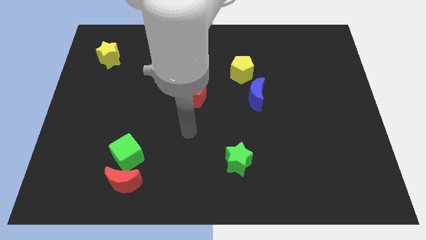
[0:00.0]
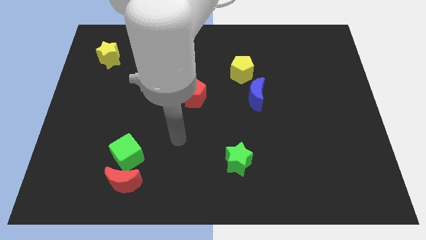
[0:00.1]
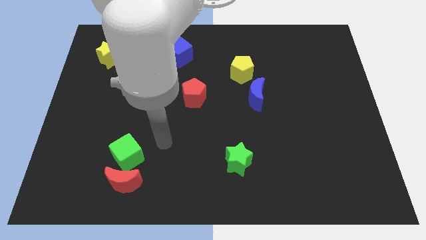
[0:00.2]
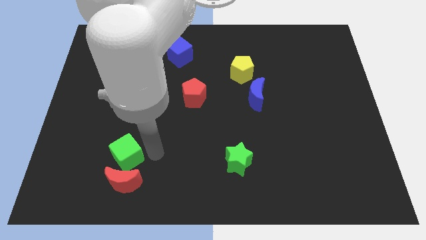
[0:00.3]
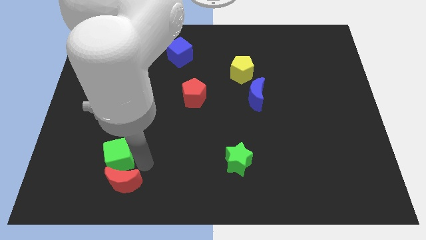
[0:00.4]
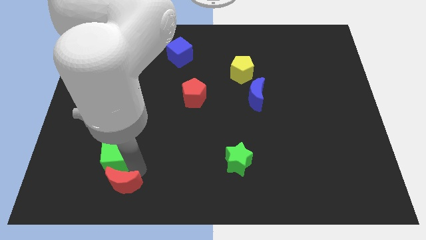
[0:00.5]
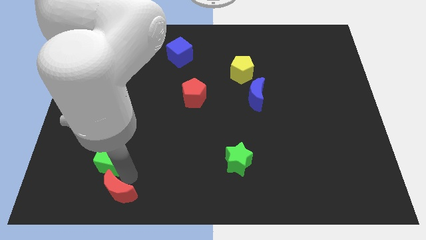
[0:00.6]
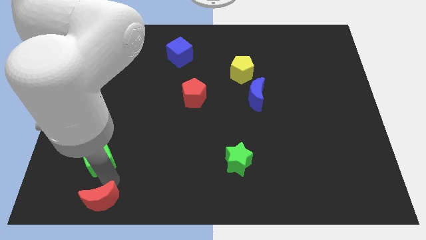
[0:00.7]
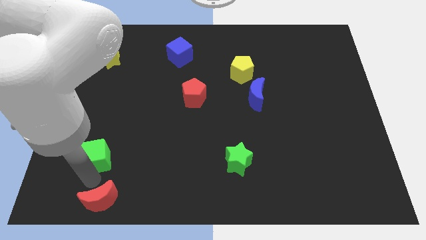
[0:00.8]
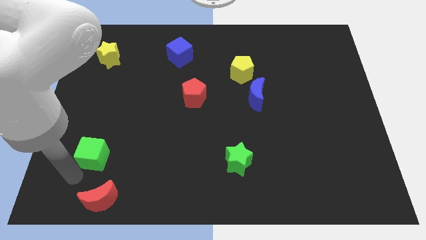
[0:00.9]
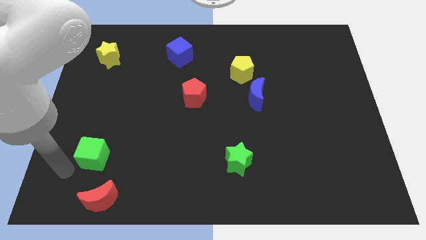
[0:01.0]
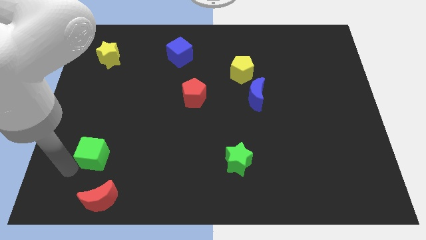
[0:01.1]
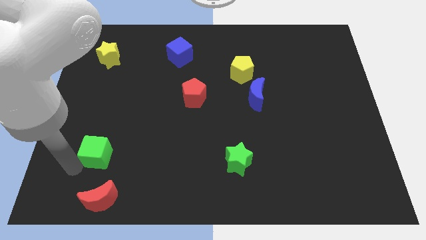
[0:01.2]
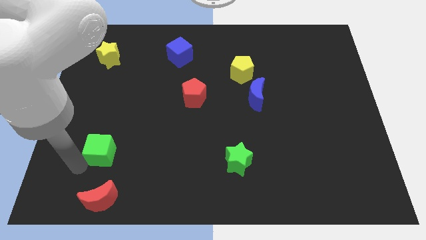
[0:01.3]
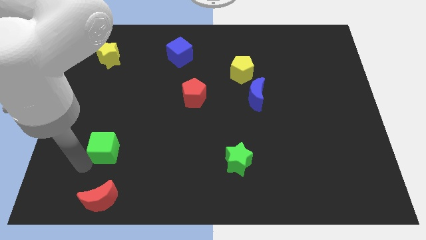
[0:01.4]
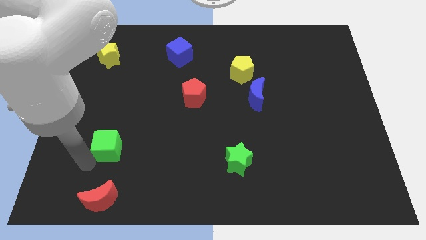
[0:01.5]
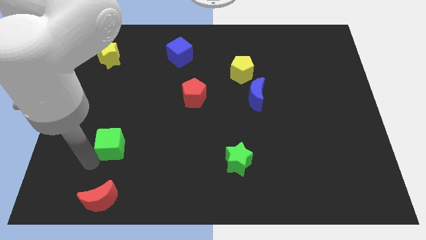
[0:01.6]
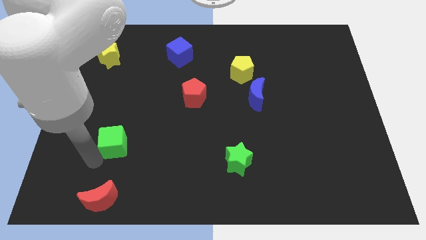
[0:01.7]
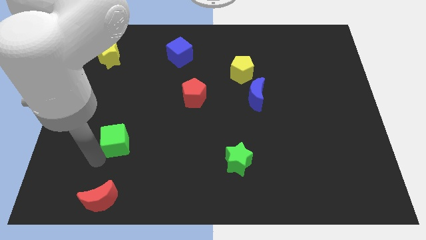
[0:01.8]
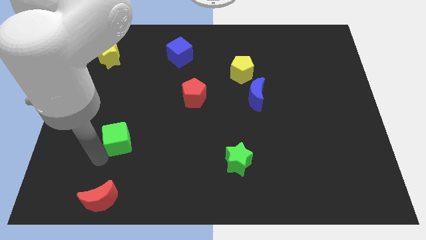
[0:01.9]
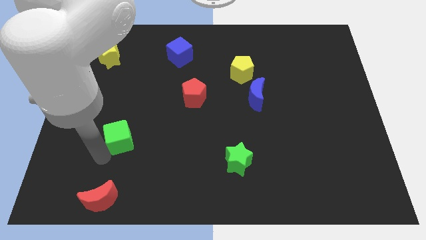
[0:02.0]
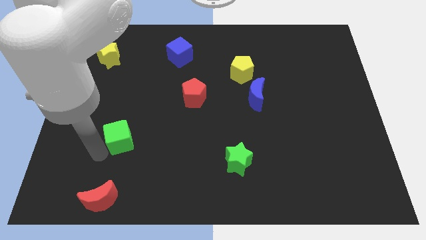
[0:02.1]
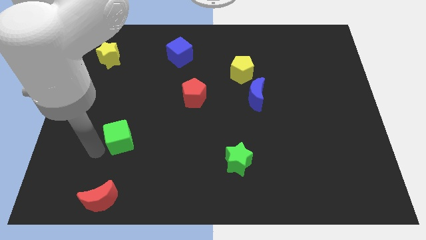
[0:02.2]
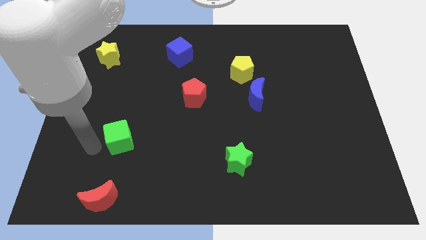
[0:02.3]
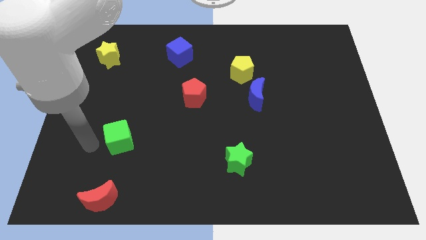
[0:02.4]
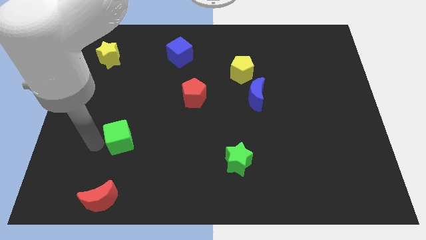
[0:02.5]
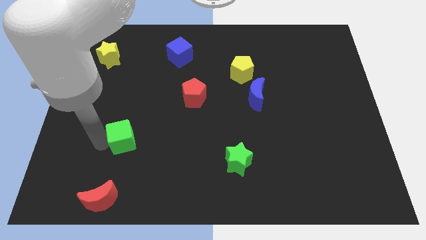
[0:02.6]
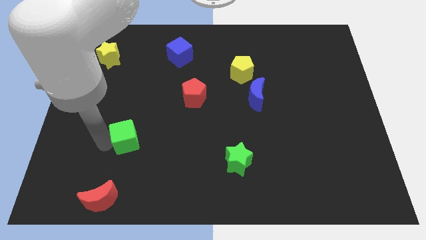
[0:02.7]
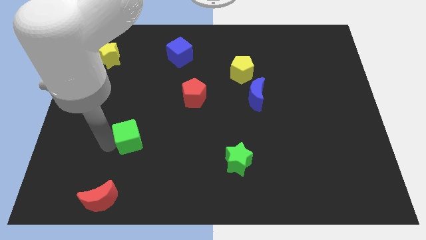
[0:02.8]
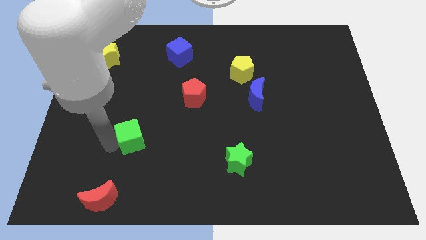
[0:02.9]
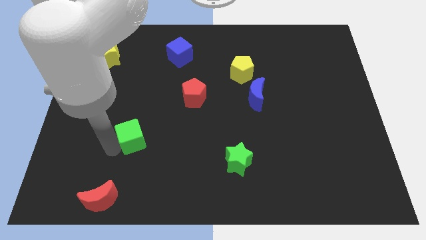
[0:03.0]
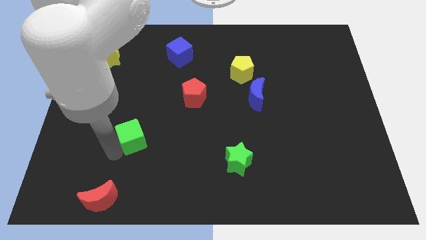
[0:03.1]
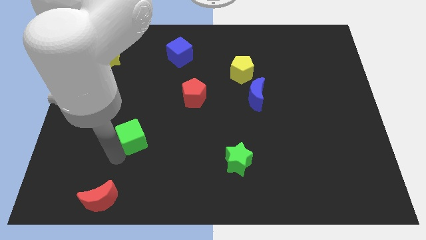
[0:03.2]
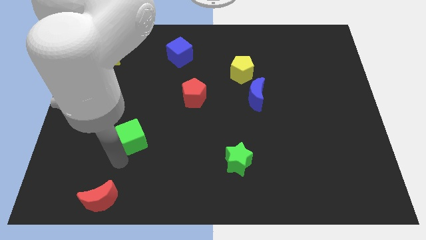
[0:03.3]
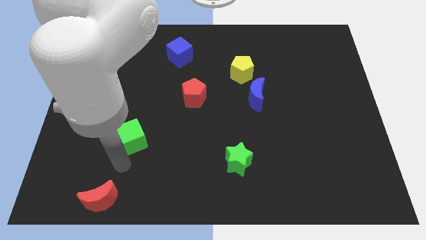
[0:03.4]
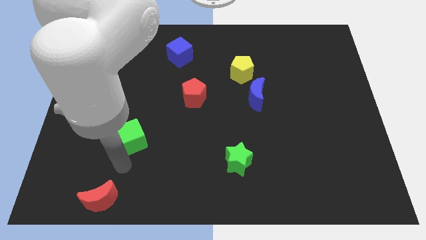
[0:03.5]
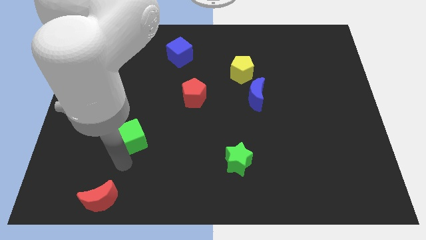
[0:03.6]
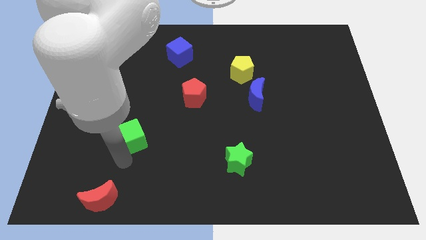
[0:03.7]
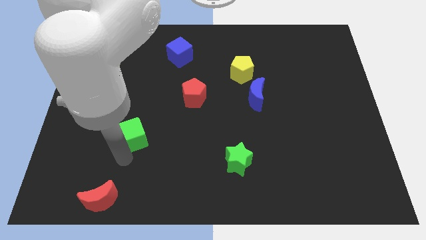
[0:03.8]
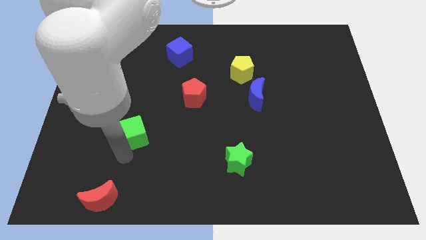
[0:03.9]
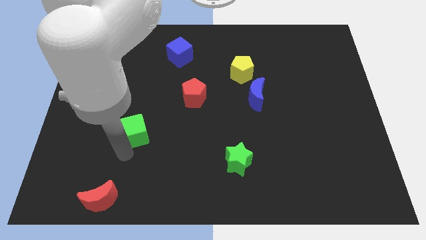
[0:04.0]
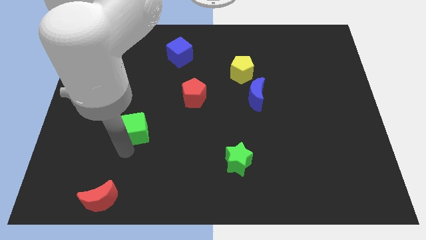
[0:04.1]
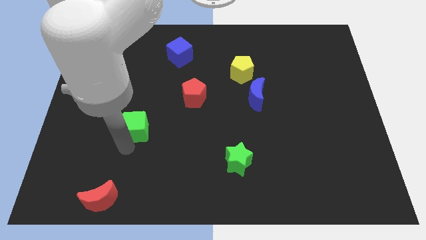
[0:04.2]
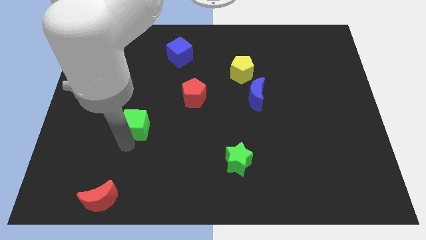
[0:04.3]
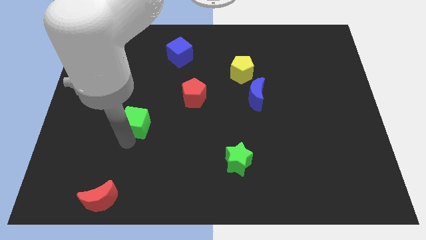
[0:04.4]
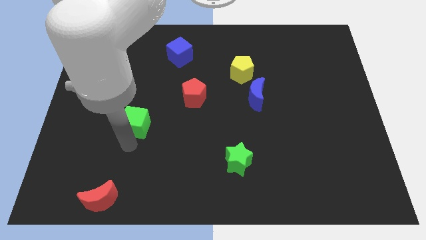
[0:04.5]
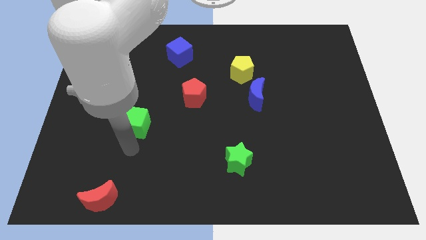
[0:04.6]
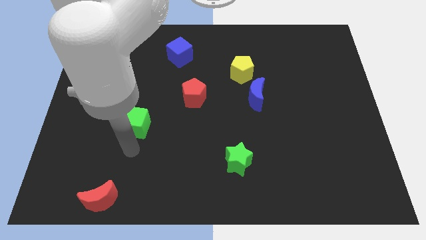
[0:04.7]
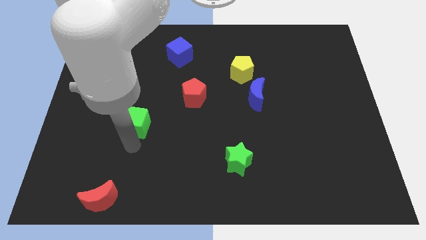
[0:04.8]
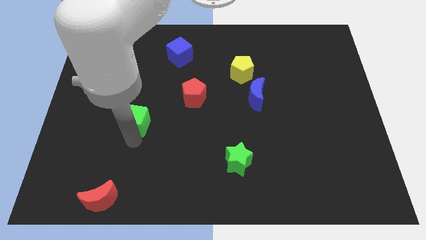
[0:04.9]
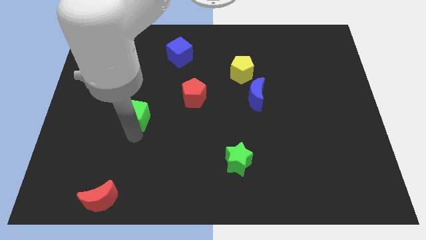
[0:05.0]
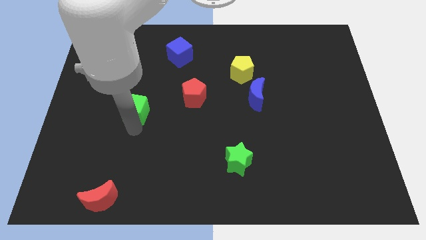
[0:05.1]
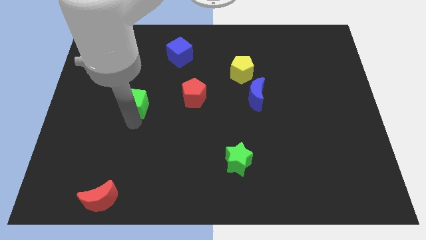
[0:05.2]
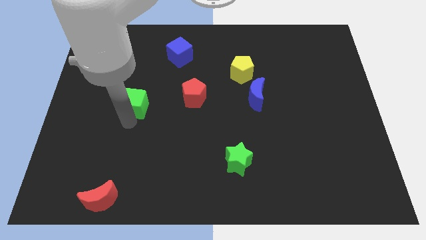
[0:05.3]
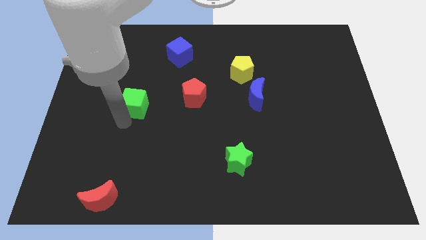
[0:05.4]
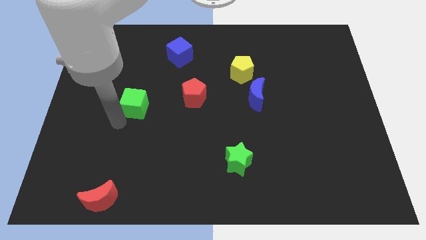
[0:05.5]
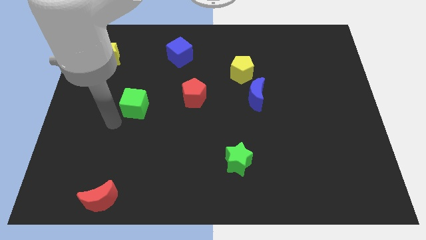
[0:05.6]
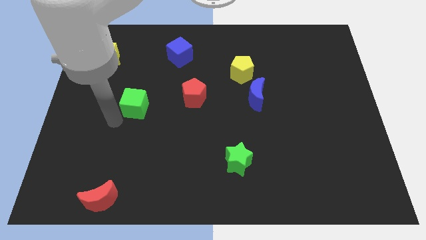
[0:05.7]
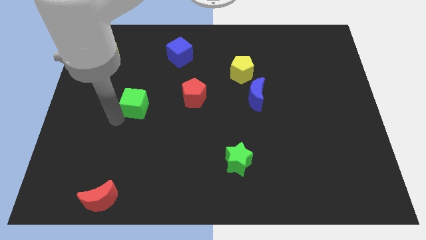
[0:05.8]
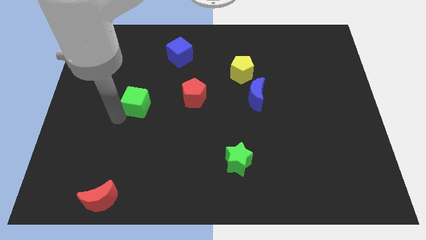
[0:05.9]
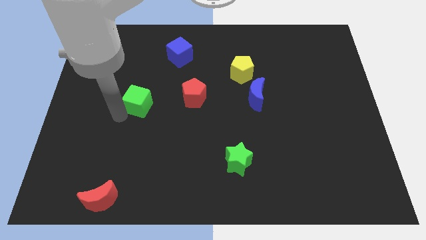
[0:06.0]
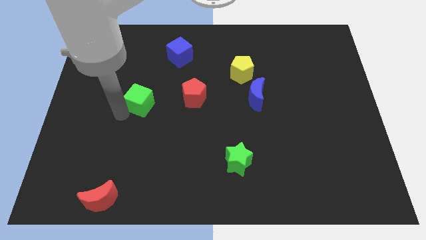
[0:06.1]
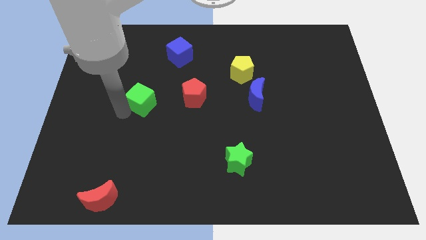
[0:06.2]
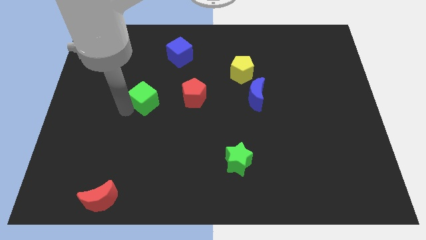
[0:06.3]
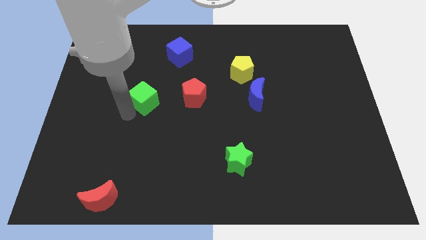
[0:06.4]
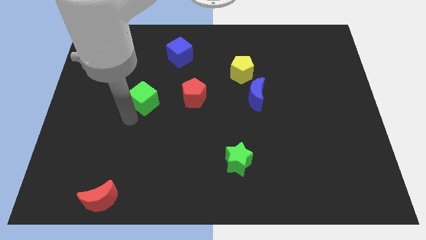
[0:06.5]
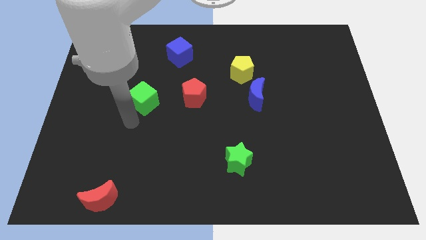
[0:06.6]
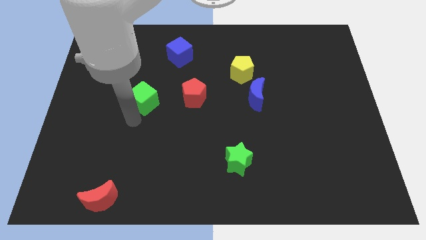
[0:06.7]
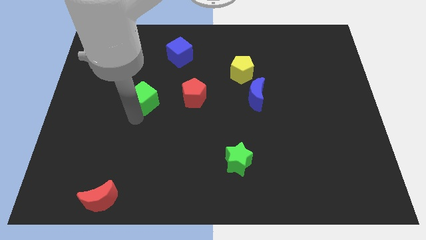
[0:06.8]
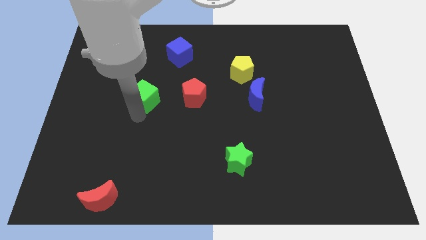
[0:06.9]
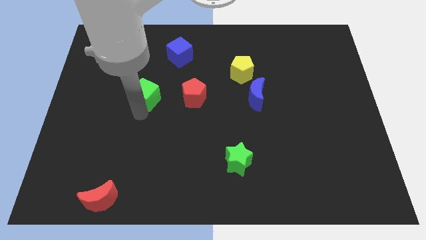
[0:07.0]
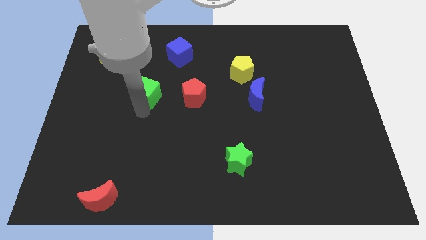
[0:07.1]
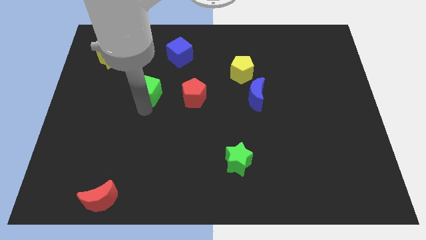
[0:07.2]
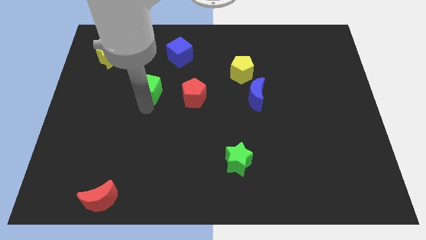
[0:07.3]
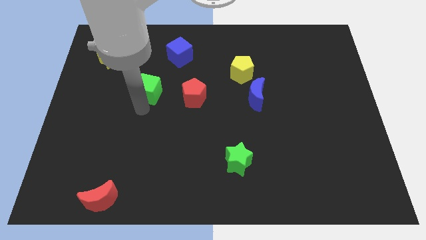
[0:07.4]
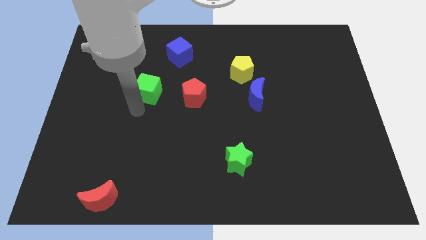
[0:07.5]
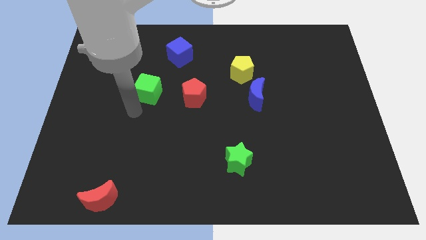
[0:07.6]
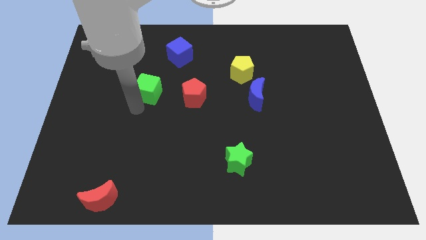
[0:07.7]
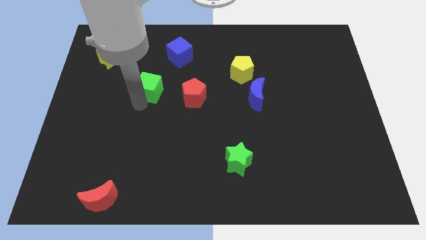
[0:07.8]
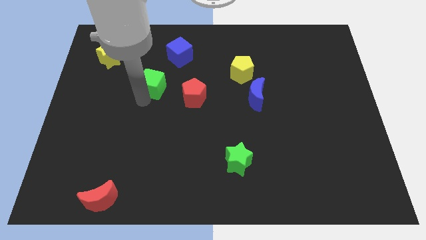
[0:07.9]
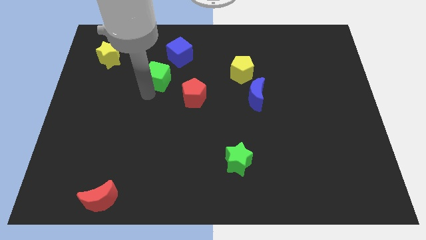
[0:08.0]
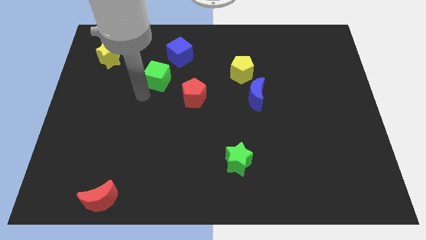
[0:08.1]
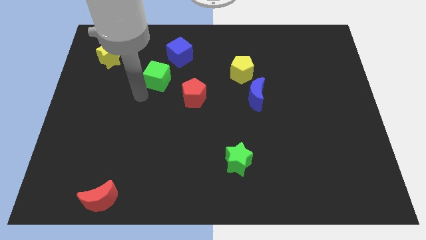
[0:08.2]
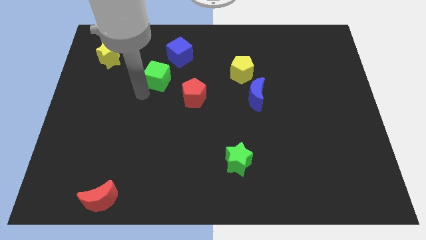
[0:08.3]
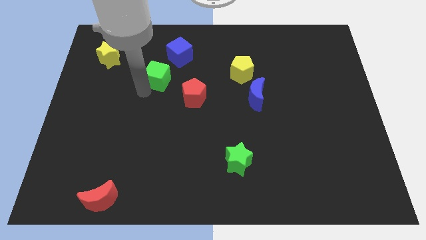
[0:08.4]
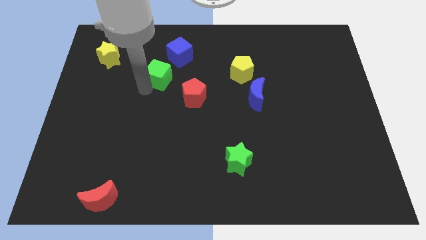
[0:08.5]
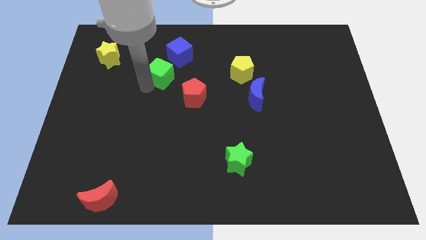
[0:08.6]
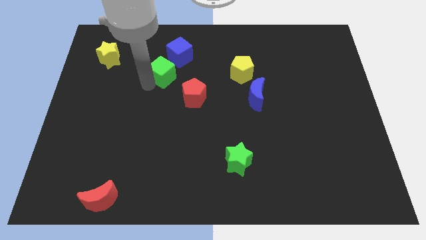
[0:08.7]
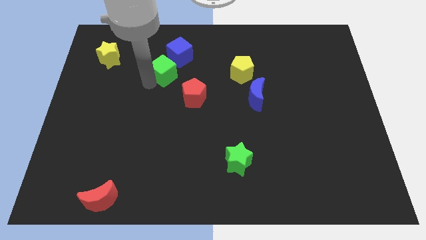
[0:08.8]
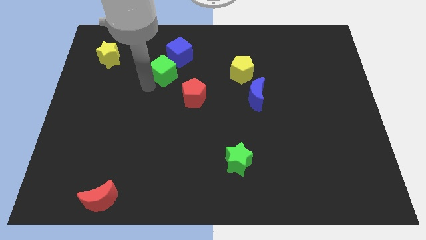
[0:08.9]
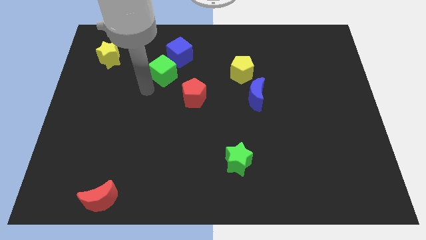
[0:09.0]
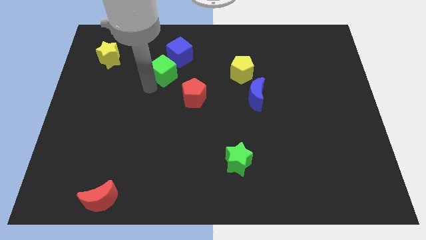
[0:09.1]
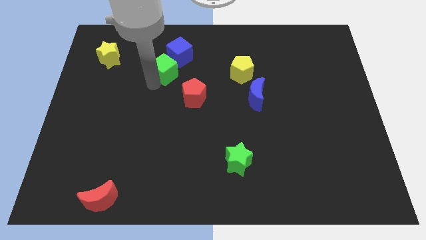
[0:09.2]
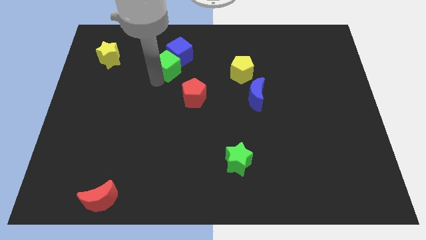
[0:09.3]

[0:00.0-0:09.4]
slide the green cube close to the blue cube
